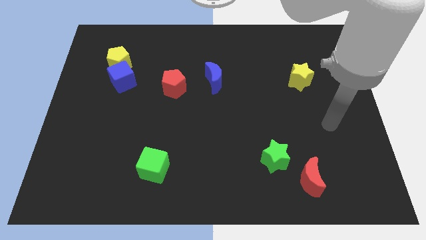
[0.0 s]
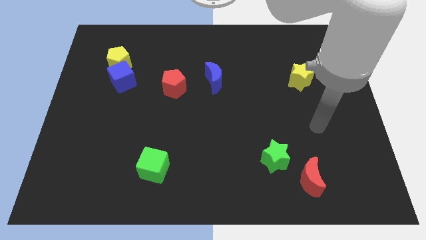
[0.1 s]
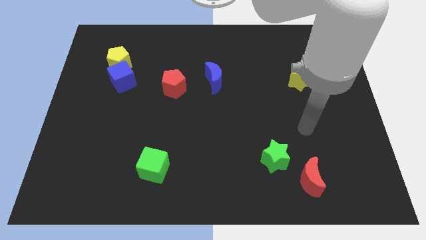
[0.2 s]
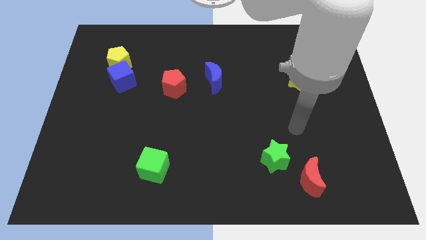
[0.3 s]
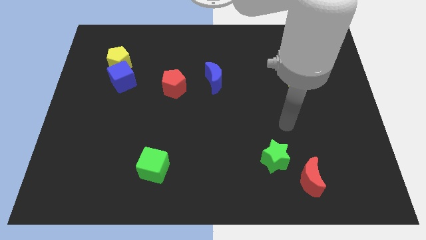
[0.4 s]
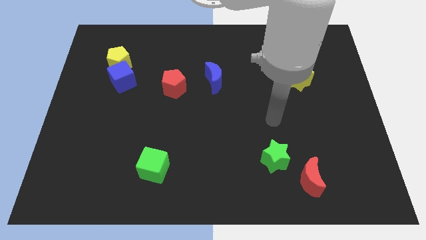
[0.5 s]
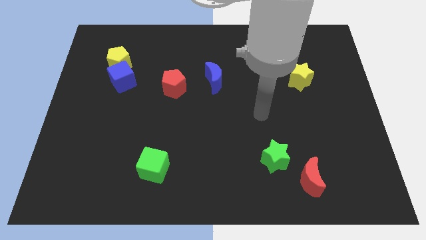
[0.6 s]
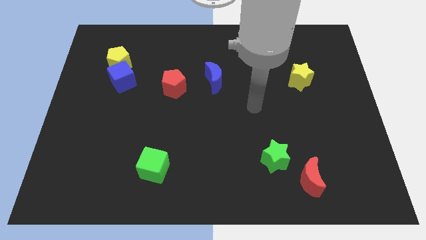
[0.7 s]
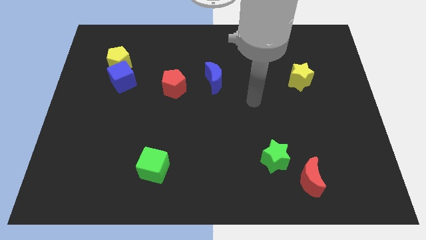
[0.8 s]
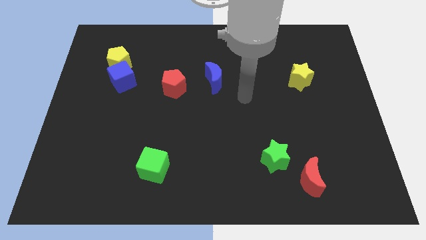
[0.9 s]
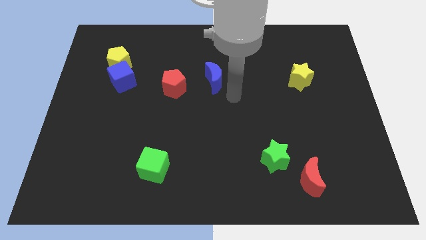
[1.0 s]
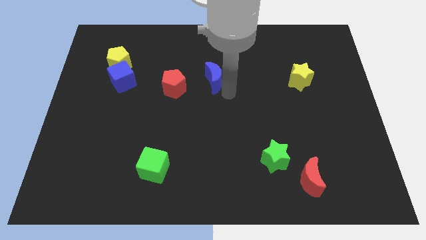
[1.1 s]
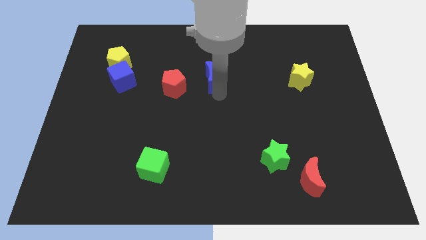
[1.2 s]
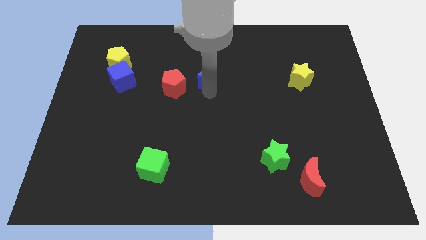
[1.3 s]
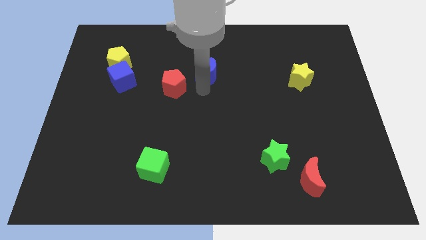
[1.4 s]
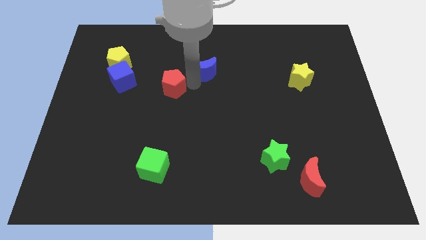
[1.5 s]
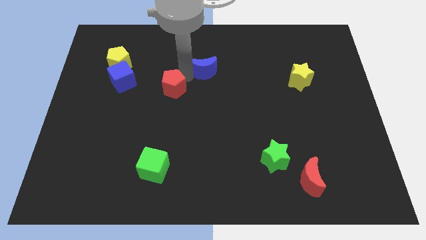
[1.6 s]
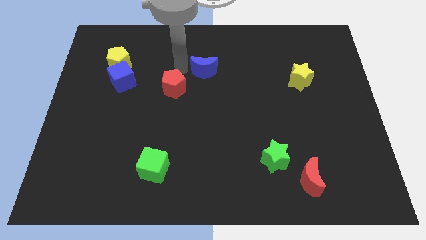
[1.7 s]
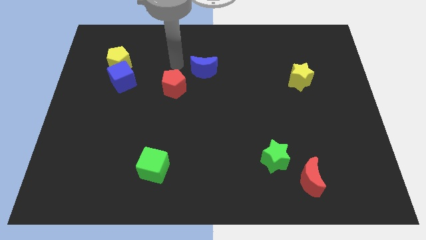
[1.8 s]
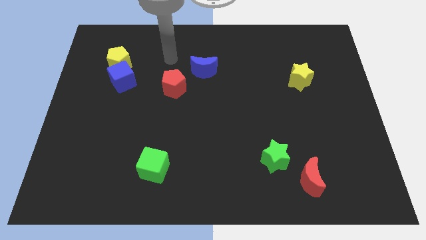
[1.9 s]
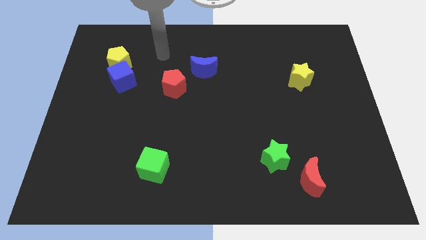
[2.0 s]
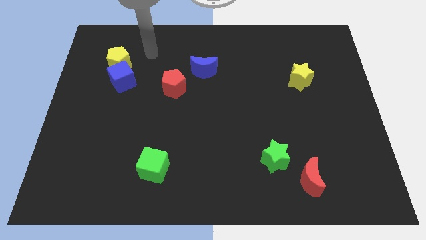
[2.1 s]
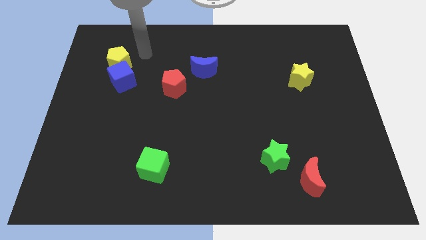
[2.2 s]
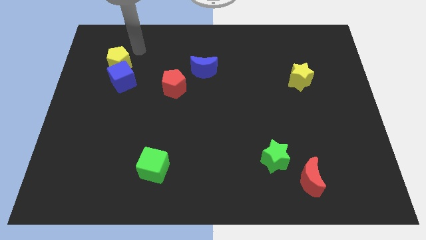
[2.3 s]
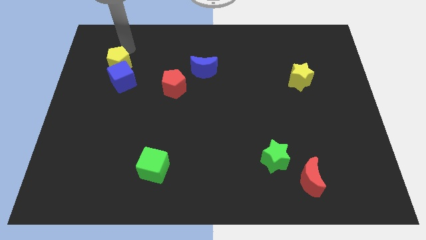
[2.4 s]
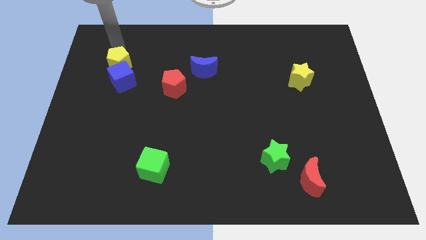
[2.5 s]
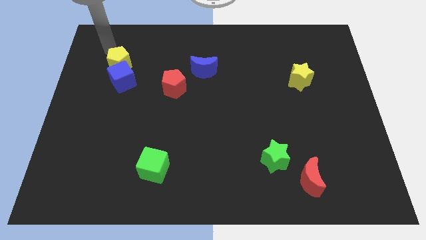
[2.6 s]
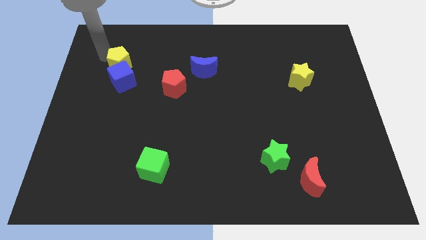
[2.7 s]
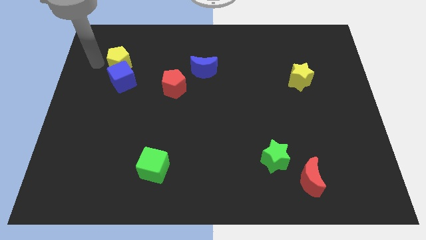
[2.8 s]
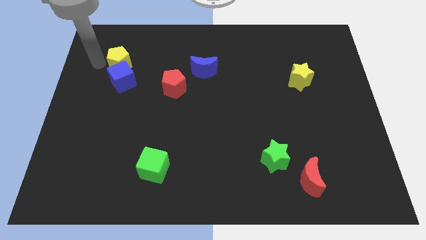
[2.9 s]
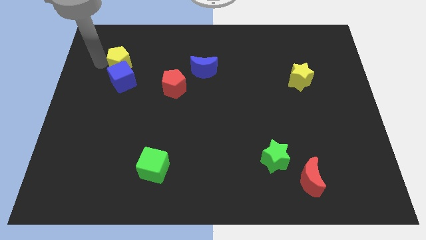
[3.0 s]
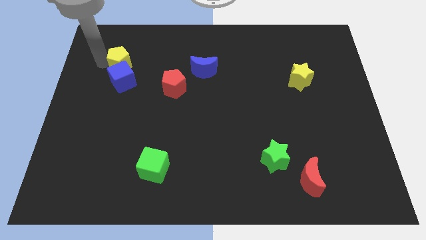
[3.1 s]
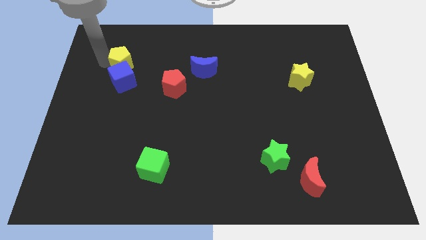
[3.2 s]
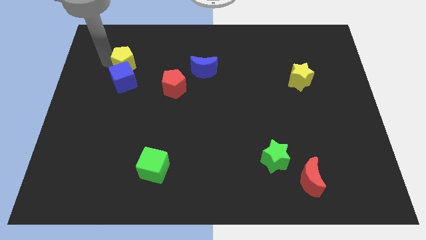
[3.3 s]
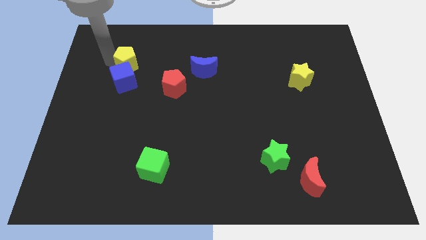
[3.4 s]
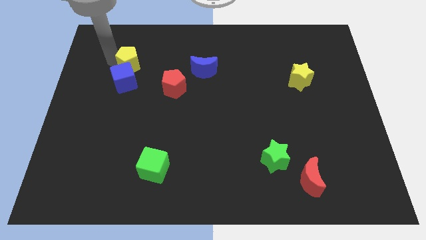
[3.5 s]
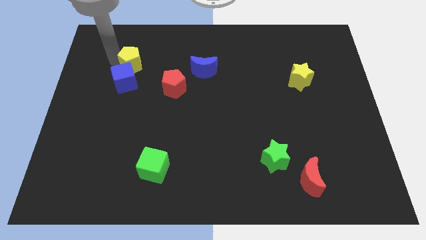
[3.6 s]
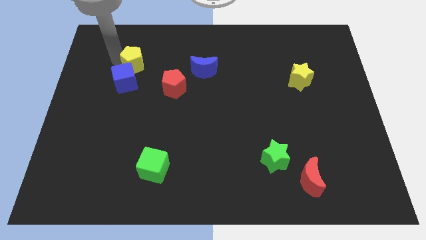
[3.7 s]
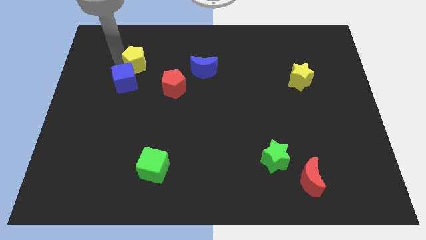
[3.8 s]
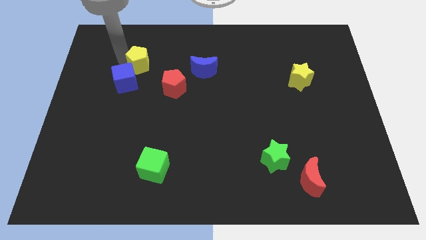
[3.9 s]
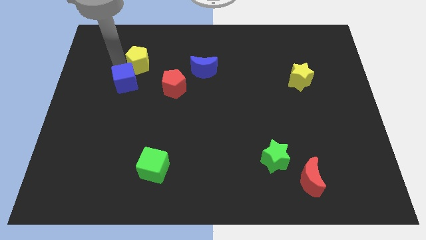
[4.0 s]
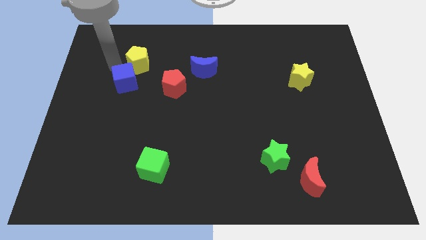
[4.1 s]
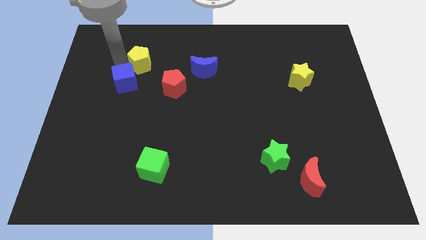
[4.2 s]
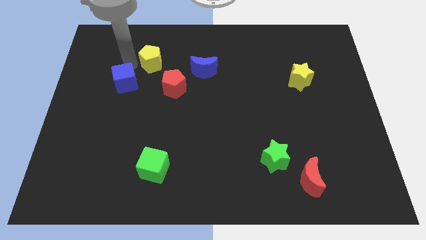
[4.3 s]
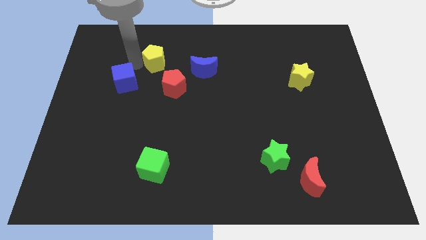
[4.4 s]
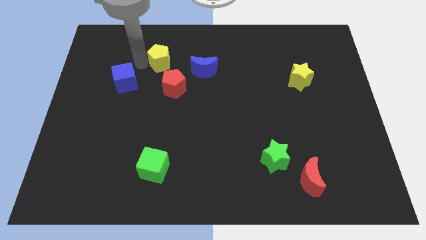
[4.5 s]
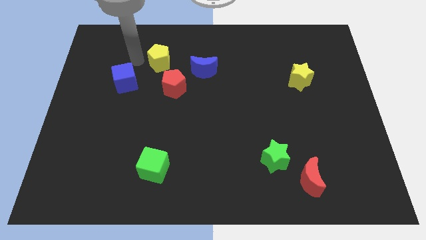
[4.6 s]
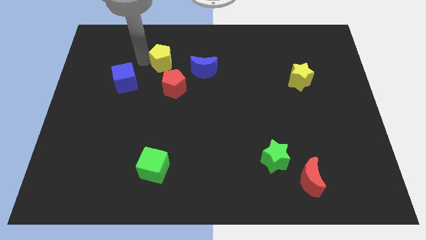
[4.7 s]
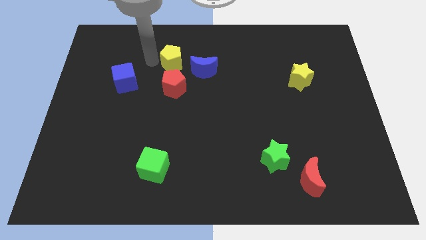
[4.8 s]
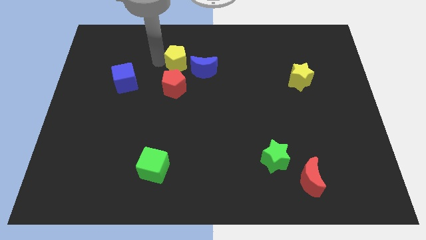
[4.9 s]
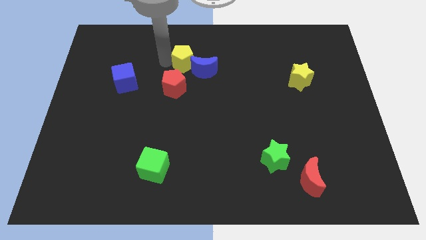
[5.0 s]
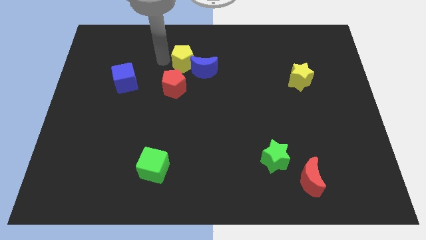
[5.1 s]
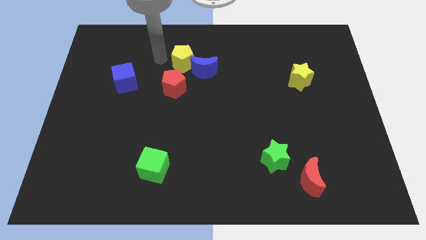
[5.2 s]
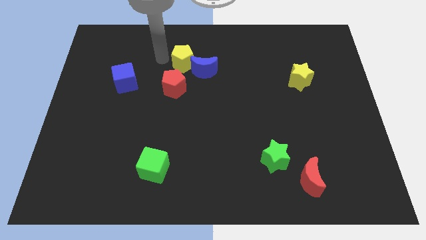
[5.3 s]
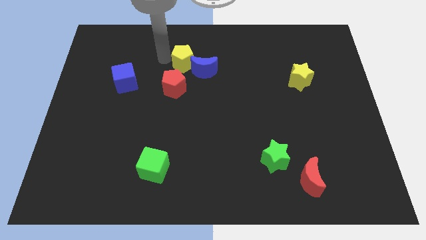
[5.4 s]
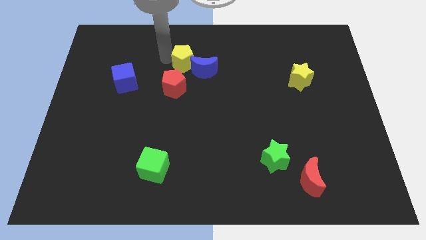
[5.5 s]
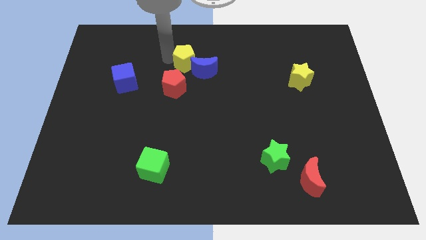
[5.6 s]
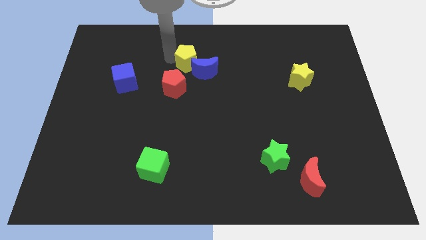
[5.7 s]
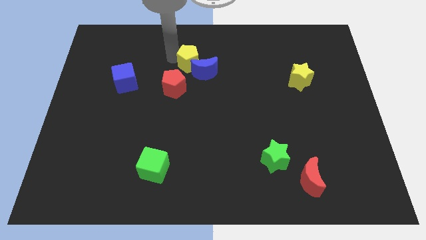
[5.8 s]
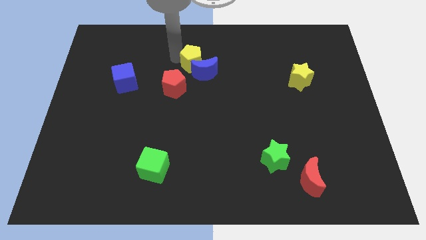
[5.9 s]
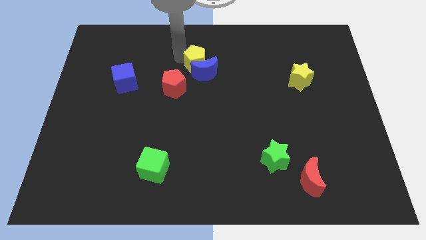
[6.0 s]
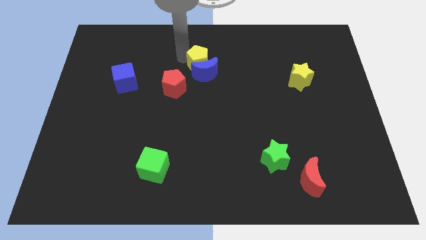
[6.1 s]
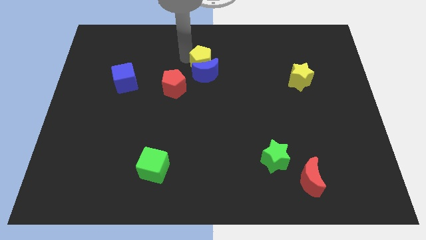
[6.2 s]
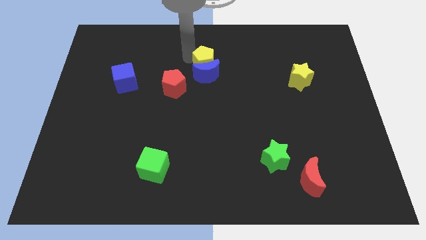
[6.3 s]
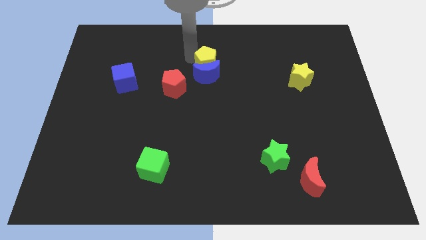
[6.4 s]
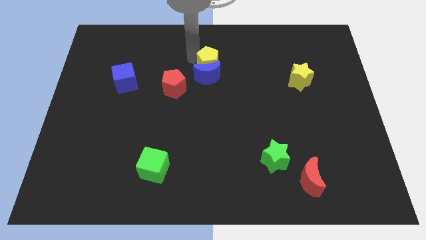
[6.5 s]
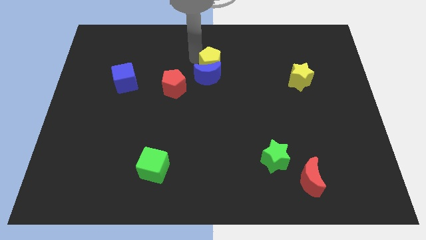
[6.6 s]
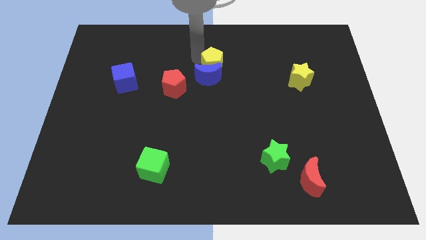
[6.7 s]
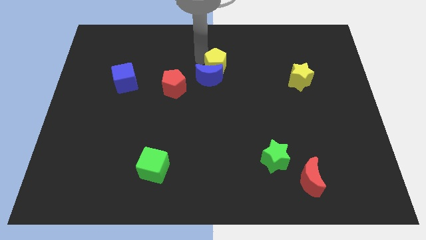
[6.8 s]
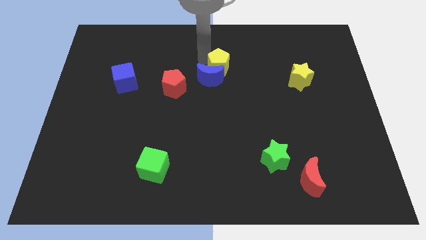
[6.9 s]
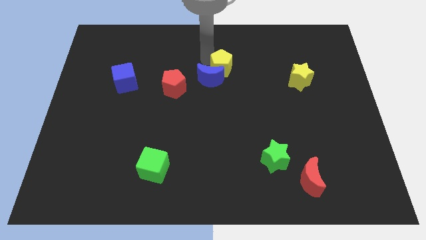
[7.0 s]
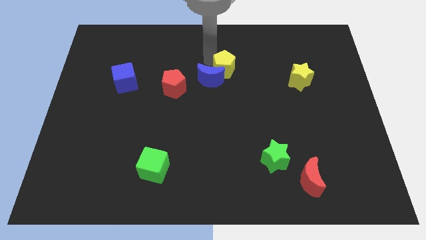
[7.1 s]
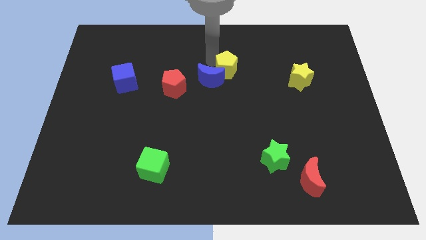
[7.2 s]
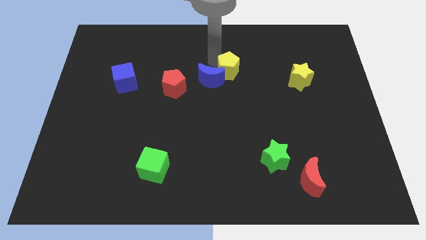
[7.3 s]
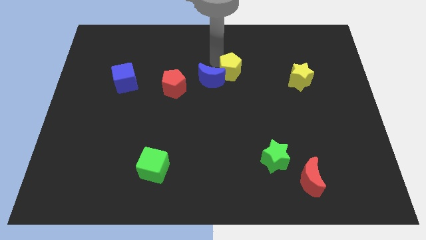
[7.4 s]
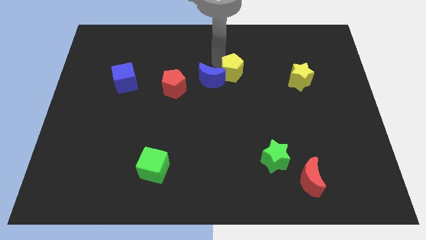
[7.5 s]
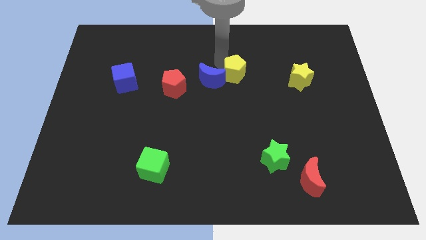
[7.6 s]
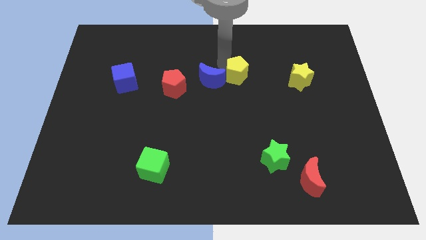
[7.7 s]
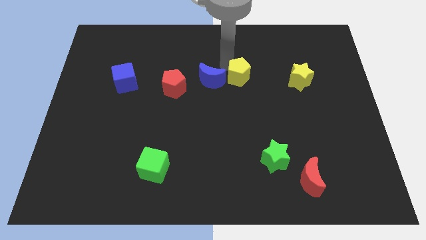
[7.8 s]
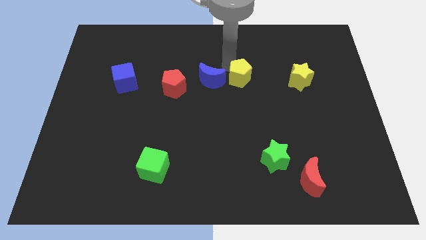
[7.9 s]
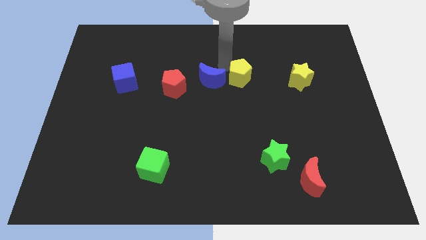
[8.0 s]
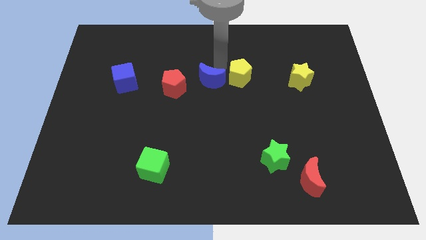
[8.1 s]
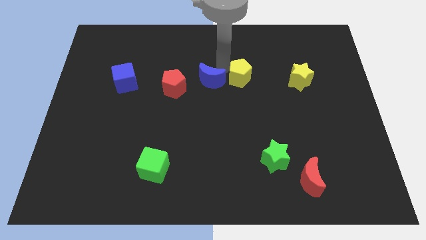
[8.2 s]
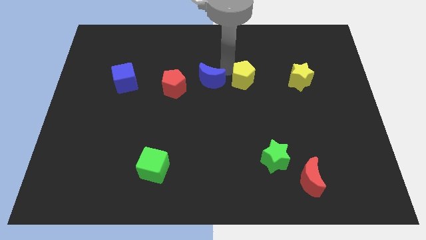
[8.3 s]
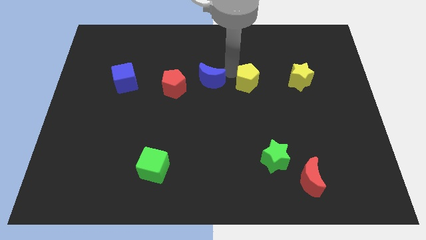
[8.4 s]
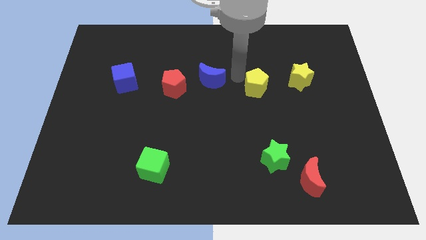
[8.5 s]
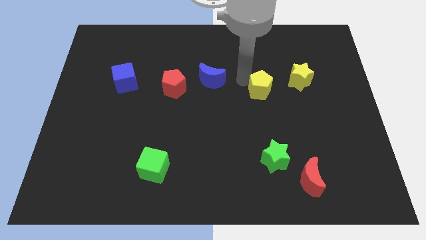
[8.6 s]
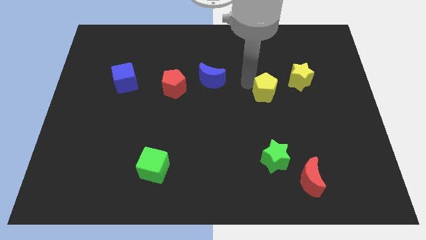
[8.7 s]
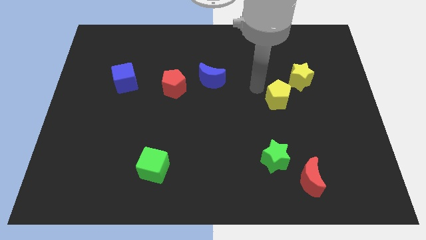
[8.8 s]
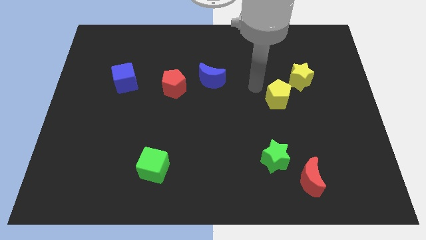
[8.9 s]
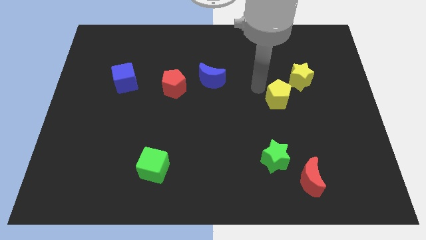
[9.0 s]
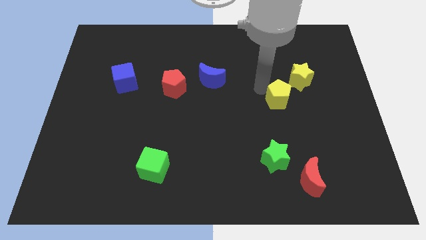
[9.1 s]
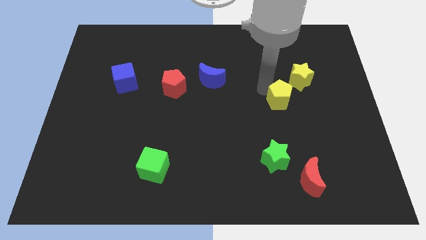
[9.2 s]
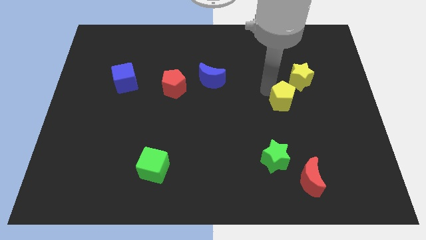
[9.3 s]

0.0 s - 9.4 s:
slide the yellow pentagon to the bottom side of the yellow star
